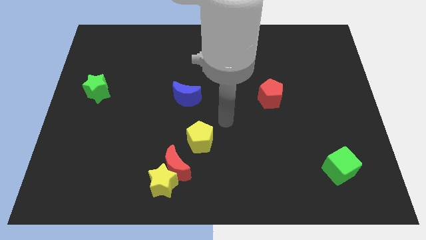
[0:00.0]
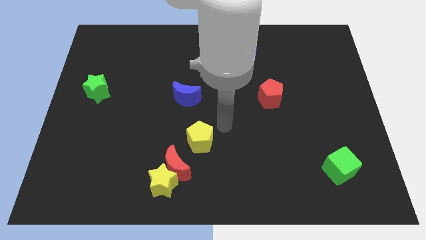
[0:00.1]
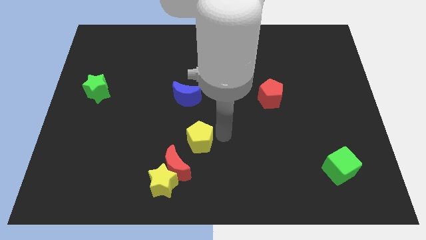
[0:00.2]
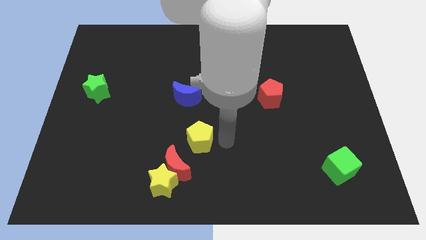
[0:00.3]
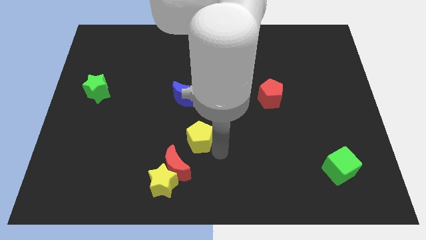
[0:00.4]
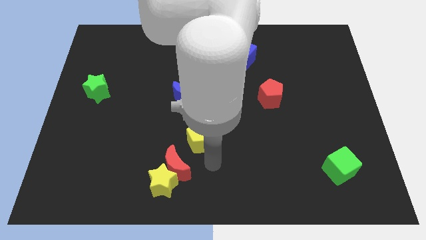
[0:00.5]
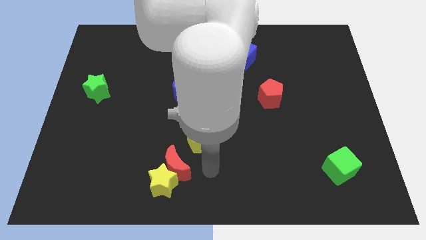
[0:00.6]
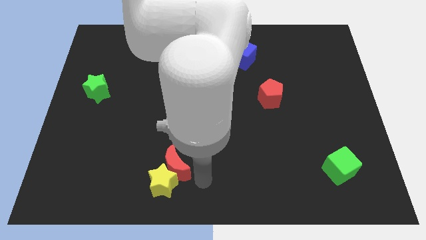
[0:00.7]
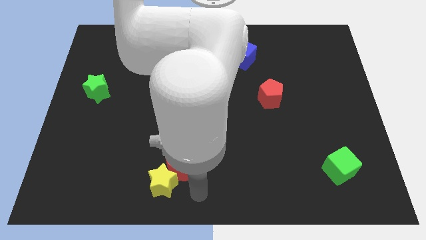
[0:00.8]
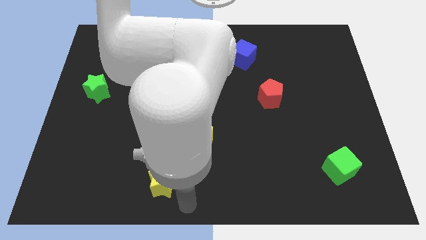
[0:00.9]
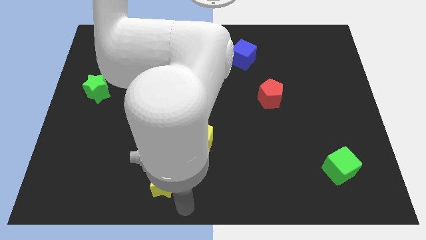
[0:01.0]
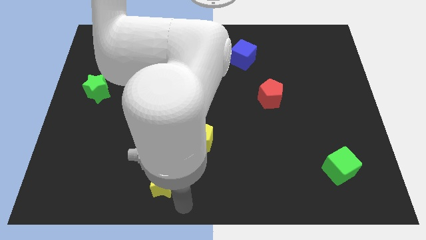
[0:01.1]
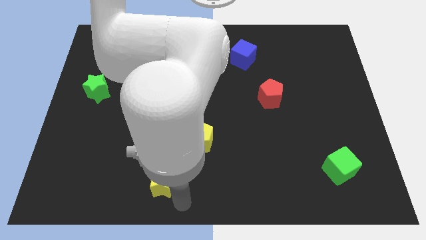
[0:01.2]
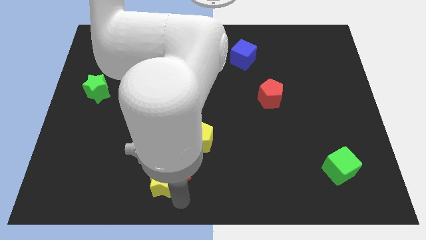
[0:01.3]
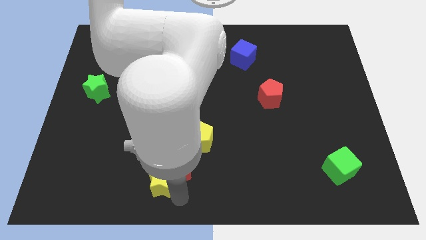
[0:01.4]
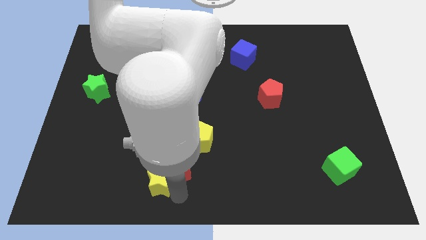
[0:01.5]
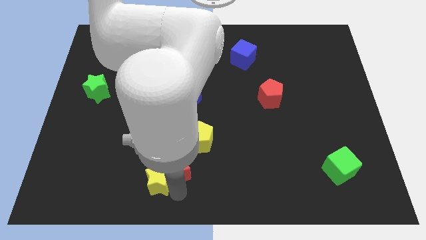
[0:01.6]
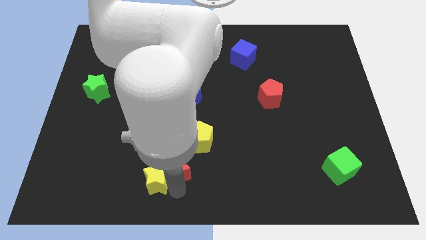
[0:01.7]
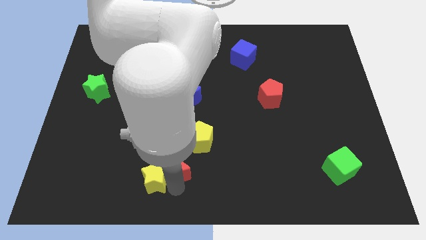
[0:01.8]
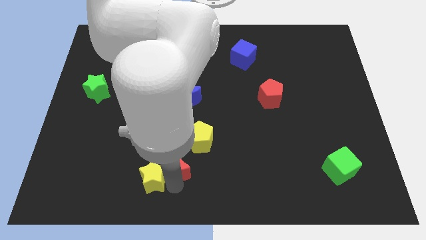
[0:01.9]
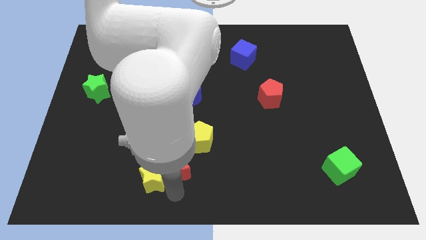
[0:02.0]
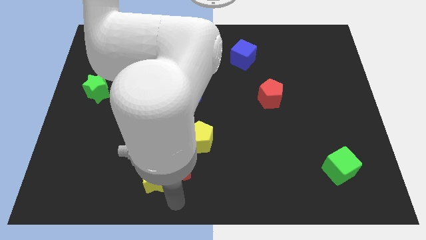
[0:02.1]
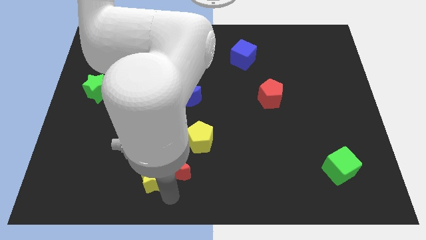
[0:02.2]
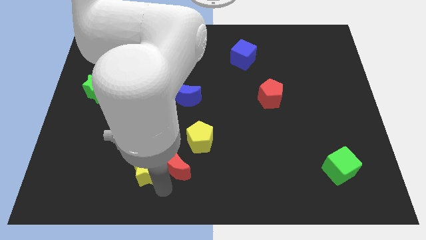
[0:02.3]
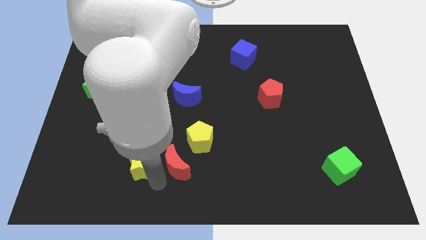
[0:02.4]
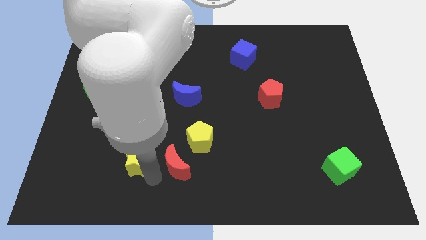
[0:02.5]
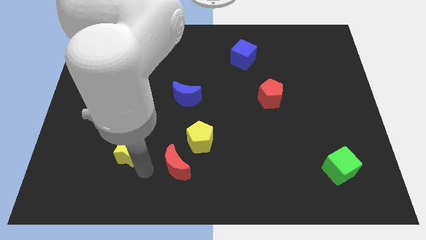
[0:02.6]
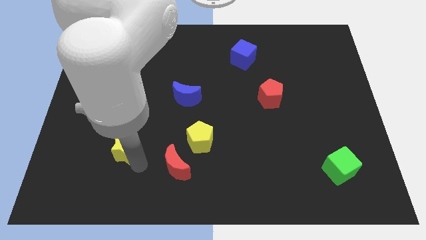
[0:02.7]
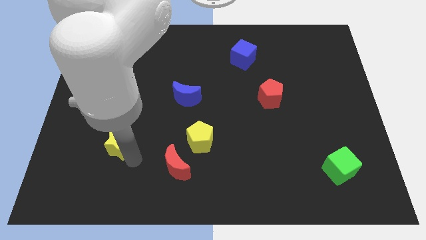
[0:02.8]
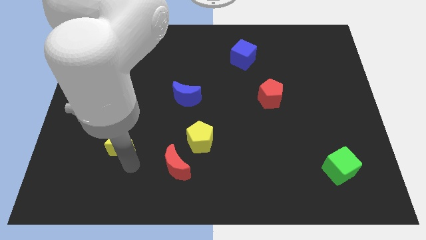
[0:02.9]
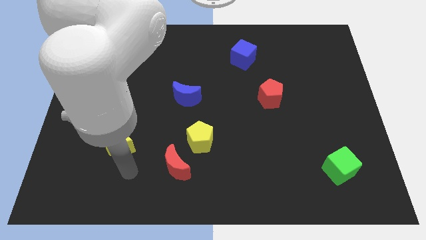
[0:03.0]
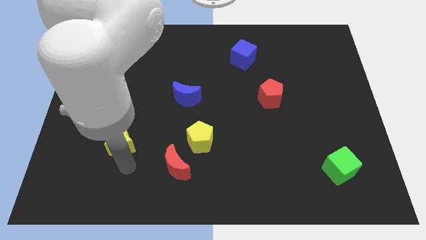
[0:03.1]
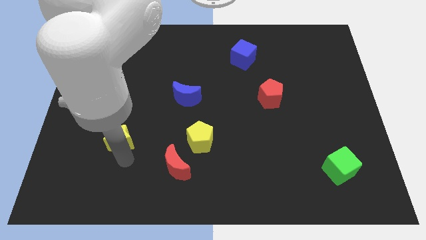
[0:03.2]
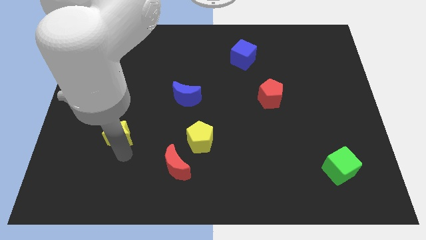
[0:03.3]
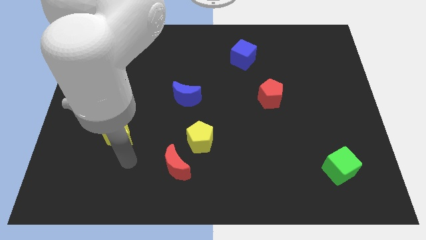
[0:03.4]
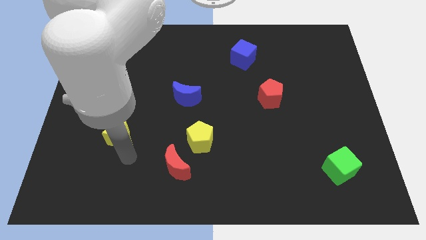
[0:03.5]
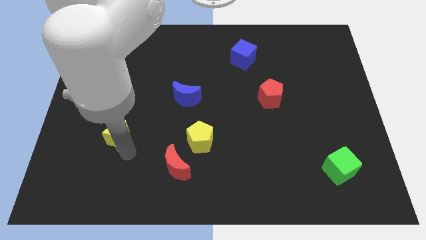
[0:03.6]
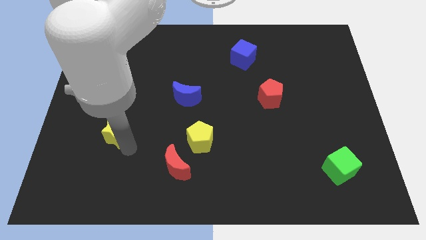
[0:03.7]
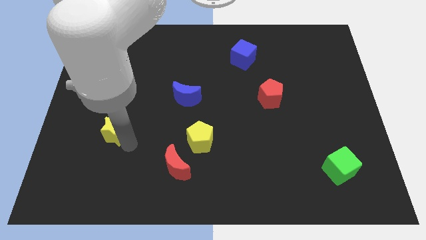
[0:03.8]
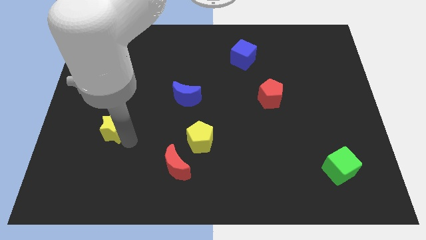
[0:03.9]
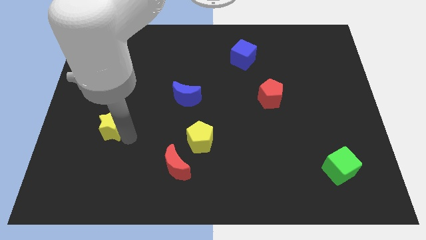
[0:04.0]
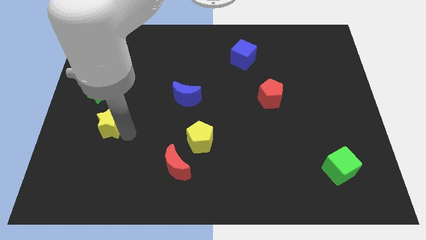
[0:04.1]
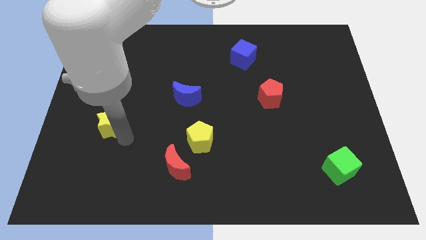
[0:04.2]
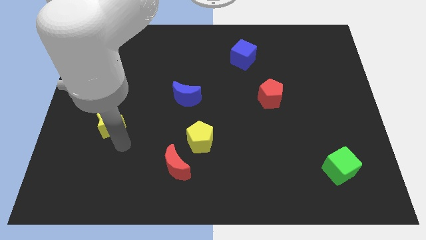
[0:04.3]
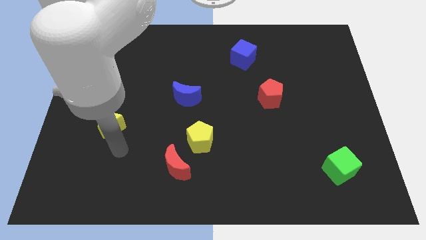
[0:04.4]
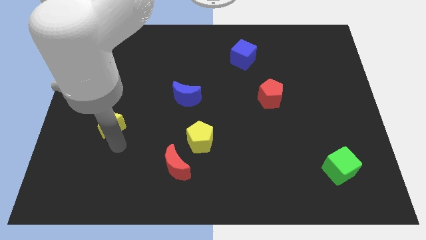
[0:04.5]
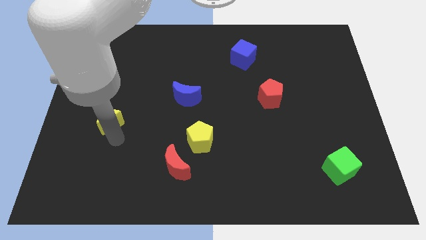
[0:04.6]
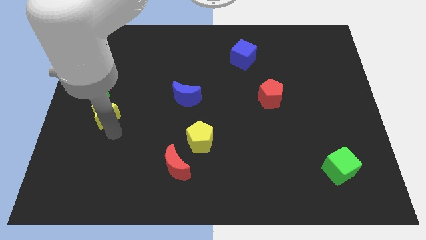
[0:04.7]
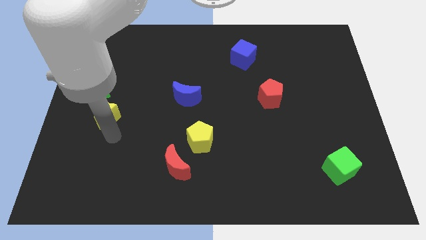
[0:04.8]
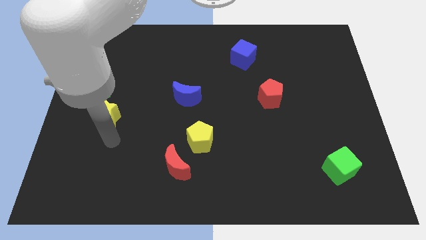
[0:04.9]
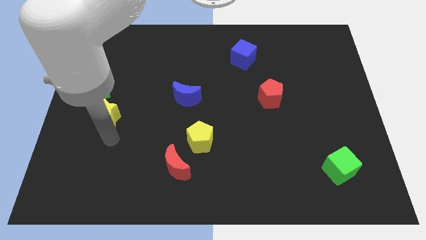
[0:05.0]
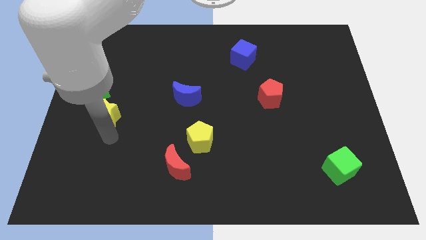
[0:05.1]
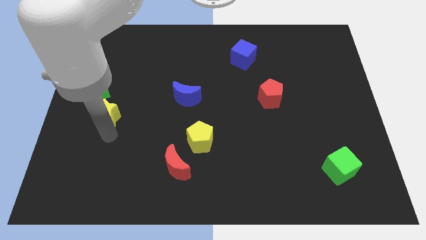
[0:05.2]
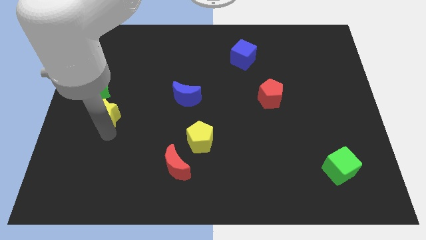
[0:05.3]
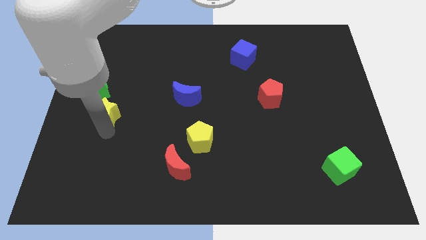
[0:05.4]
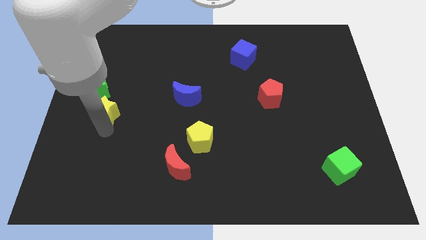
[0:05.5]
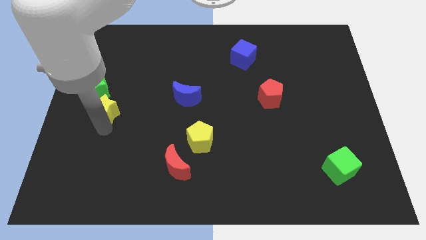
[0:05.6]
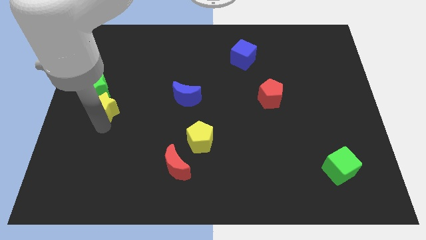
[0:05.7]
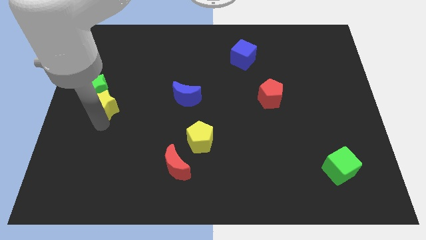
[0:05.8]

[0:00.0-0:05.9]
move the yellow star towards the green star

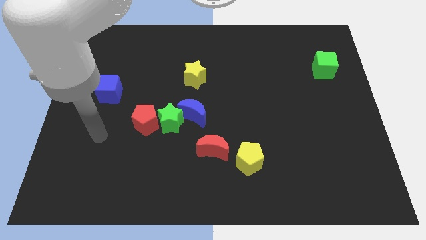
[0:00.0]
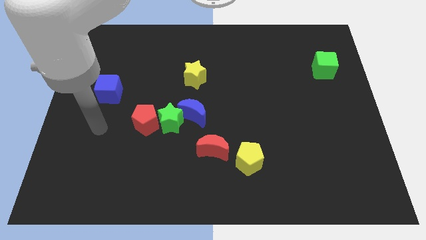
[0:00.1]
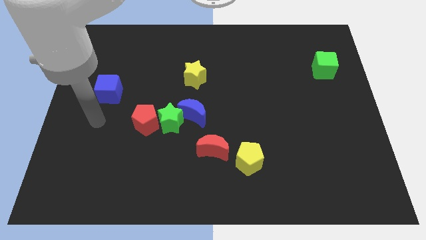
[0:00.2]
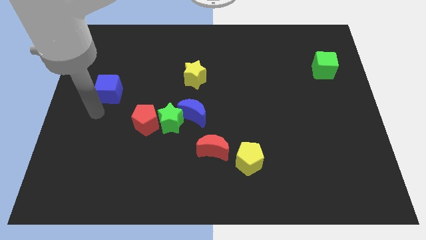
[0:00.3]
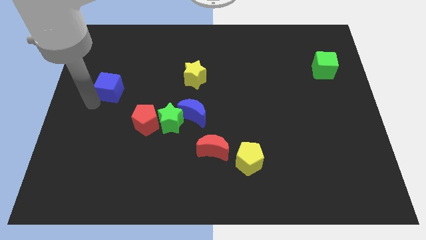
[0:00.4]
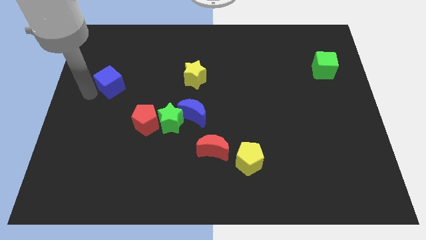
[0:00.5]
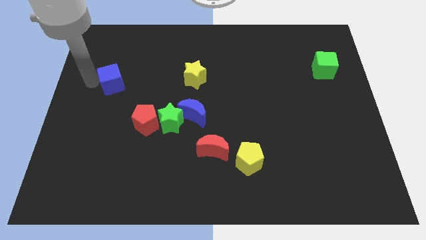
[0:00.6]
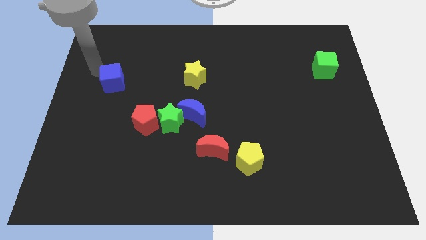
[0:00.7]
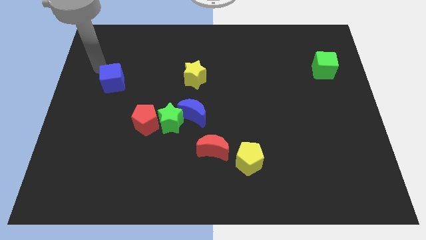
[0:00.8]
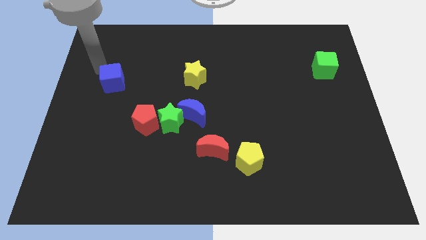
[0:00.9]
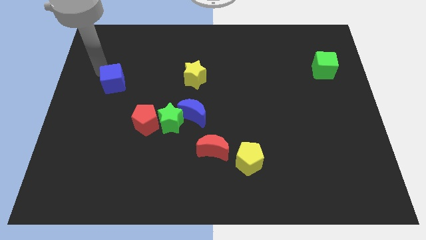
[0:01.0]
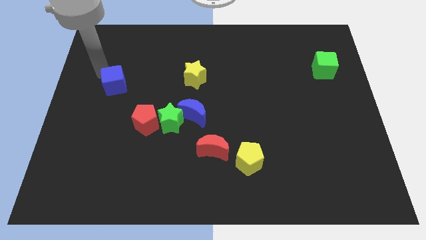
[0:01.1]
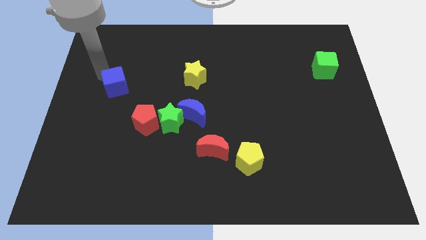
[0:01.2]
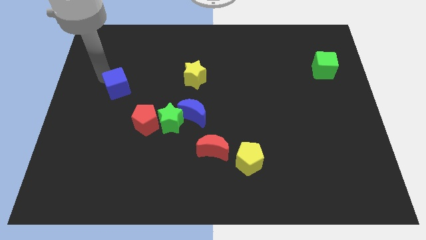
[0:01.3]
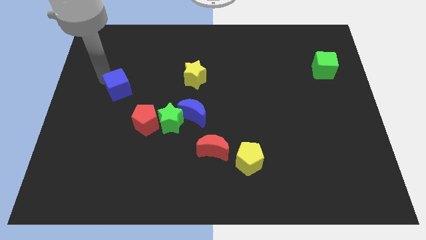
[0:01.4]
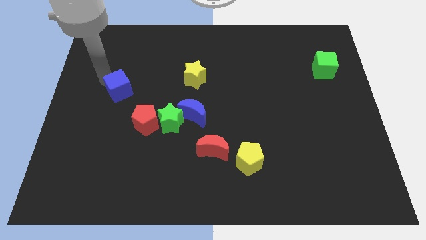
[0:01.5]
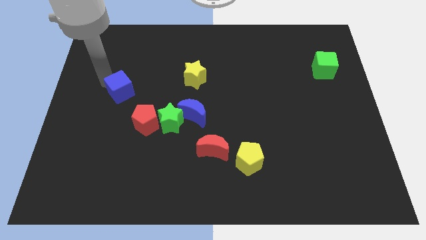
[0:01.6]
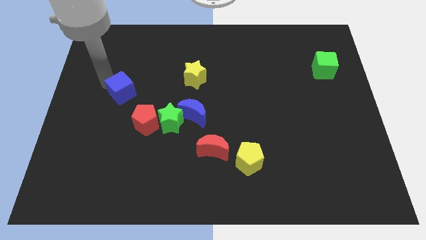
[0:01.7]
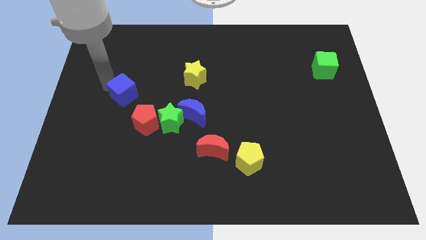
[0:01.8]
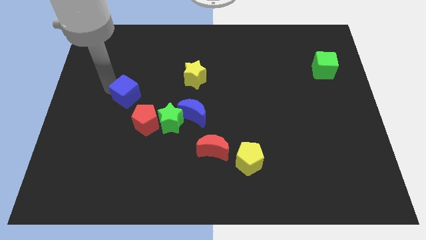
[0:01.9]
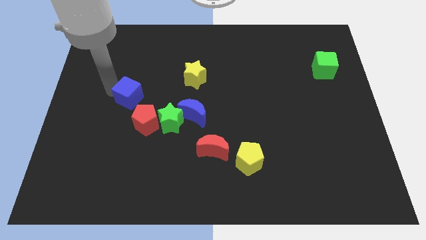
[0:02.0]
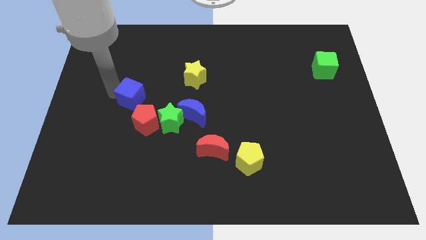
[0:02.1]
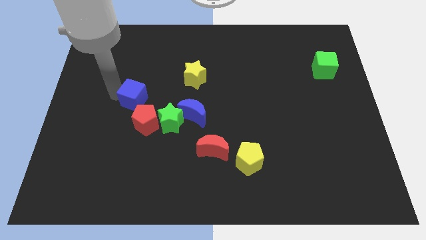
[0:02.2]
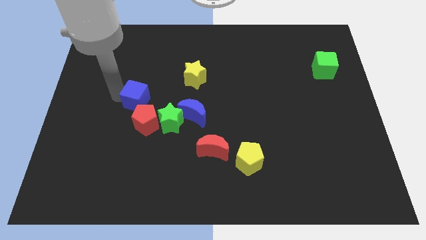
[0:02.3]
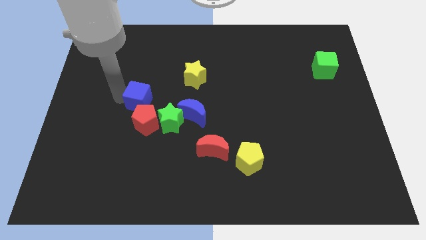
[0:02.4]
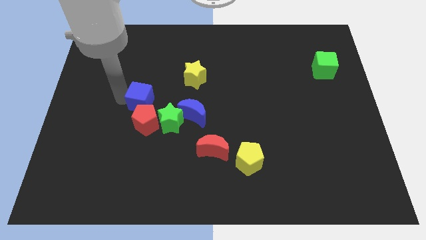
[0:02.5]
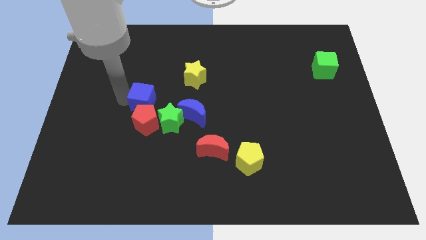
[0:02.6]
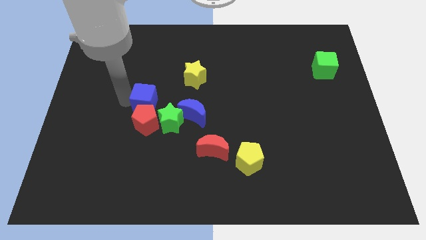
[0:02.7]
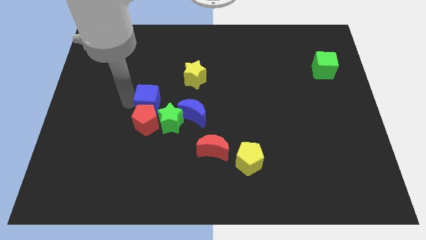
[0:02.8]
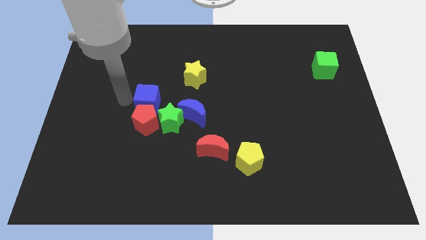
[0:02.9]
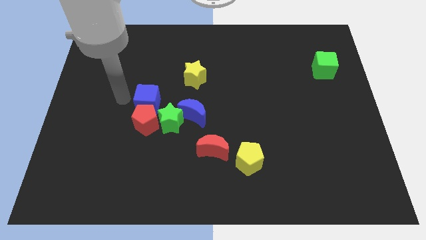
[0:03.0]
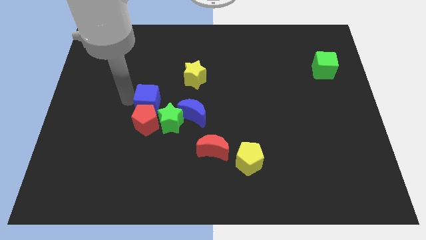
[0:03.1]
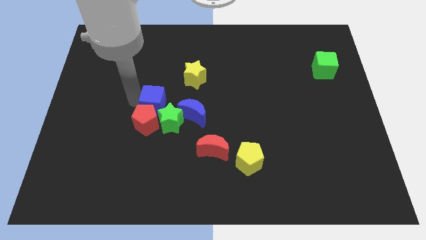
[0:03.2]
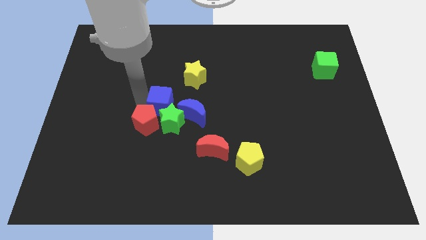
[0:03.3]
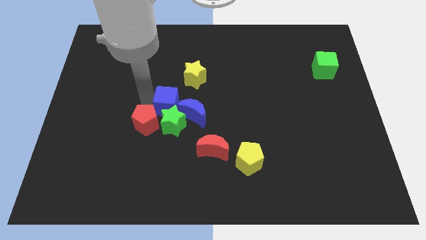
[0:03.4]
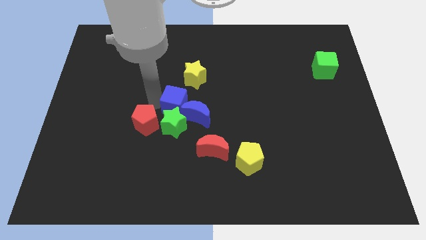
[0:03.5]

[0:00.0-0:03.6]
move the blue cube towards the blue moon
